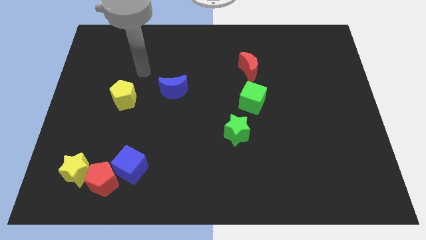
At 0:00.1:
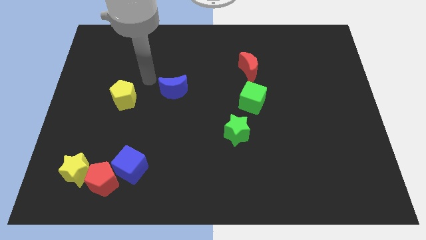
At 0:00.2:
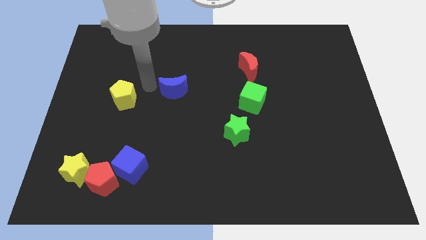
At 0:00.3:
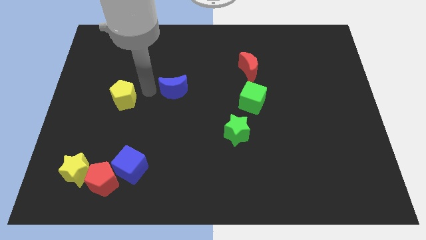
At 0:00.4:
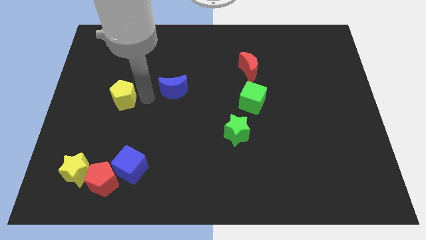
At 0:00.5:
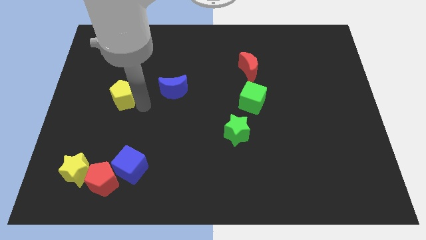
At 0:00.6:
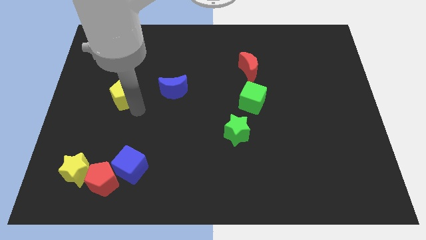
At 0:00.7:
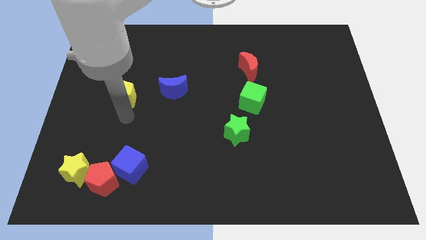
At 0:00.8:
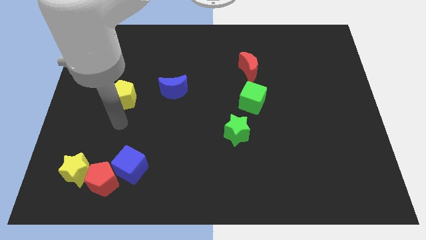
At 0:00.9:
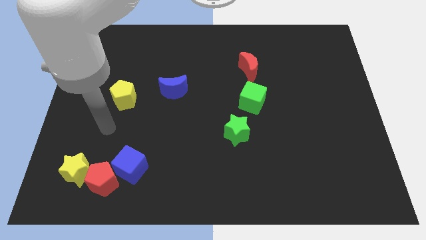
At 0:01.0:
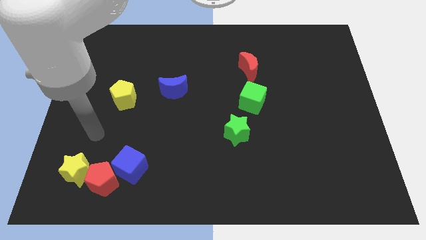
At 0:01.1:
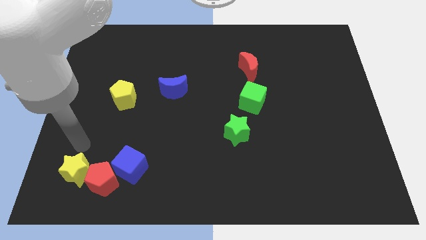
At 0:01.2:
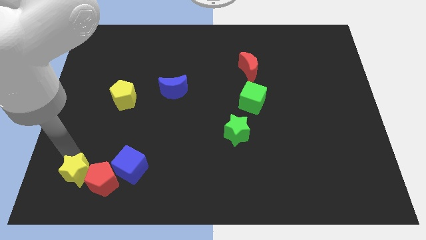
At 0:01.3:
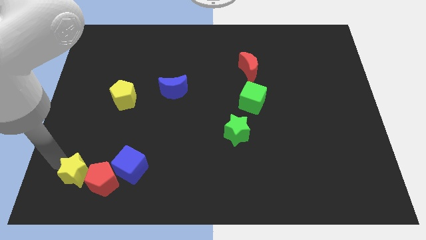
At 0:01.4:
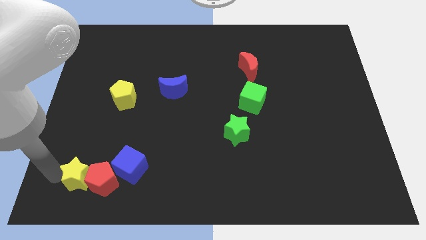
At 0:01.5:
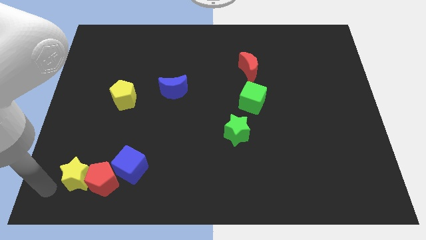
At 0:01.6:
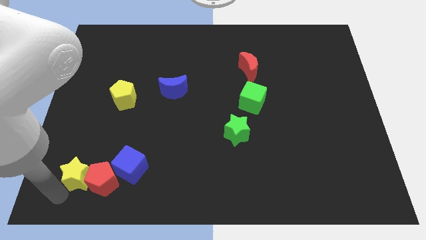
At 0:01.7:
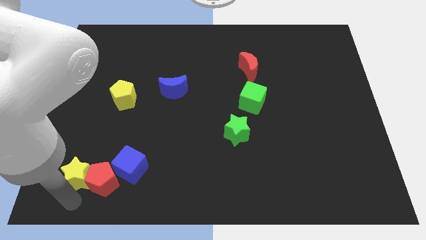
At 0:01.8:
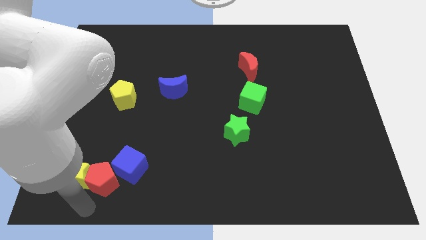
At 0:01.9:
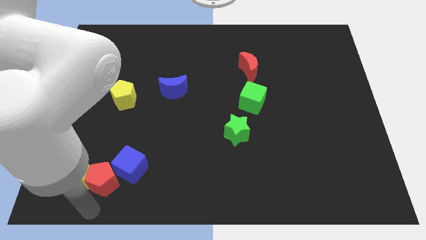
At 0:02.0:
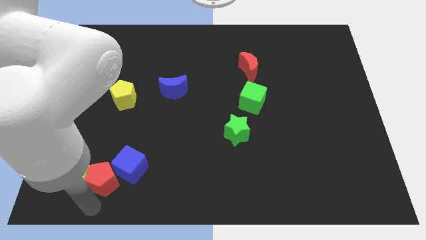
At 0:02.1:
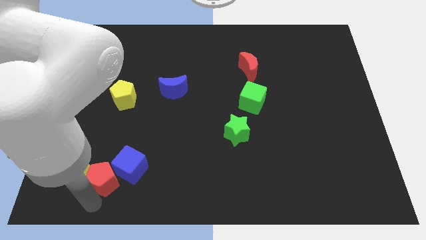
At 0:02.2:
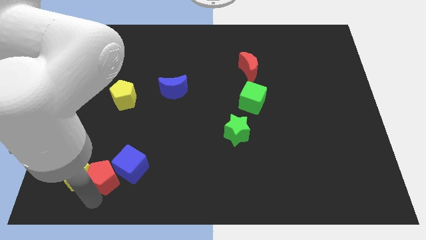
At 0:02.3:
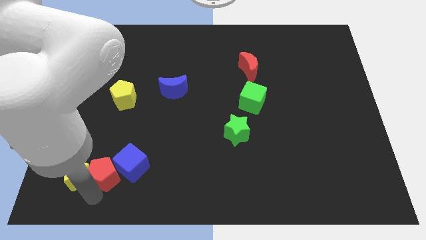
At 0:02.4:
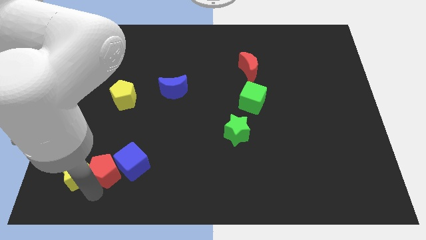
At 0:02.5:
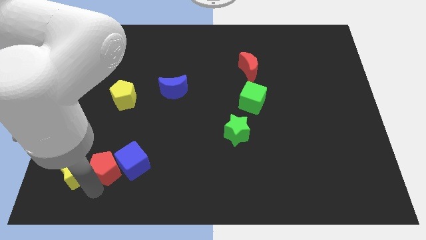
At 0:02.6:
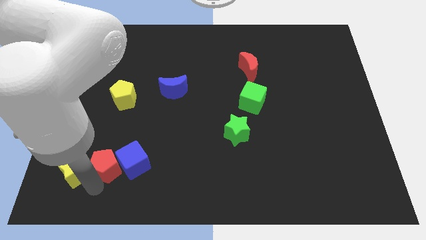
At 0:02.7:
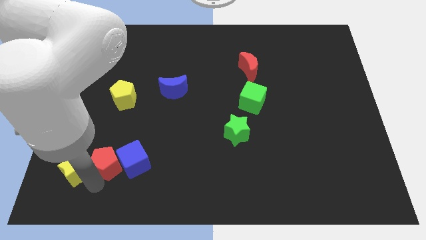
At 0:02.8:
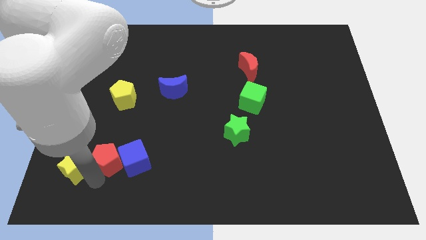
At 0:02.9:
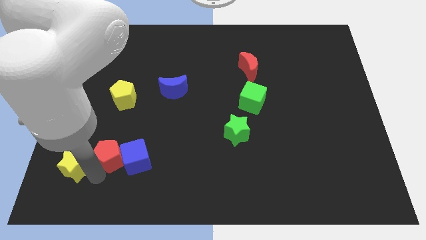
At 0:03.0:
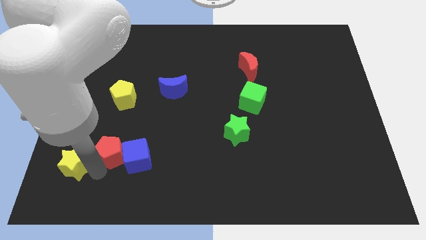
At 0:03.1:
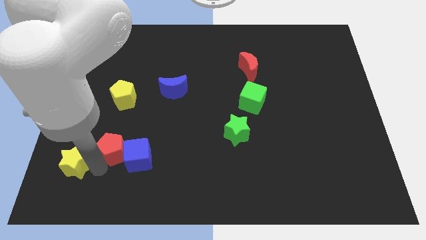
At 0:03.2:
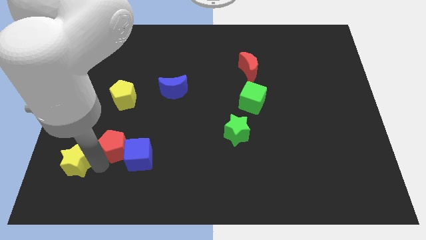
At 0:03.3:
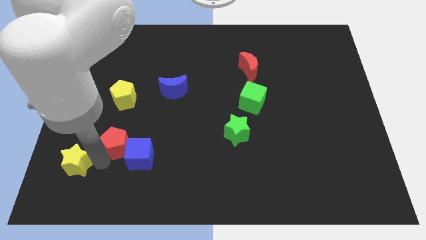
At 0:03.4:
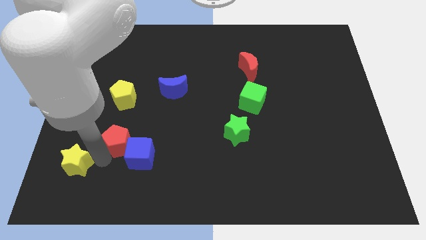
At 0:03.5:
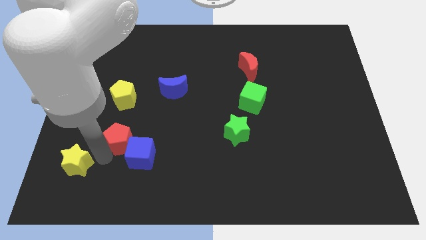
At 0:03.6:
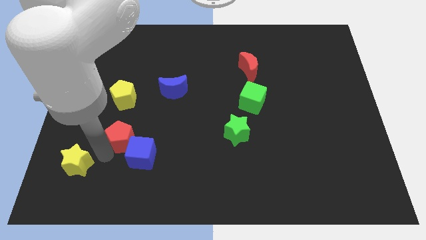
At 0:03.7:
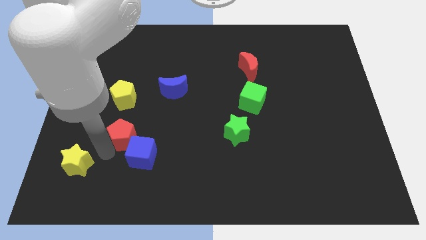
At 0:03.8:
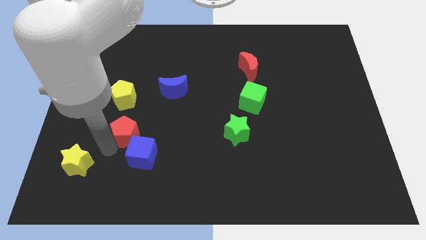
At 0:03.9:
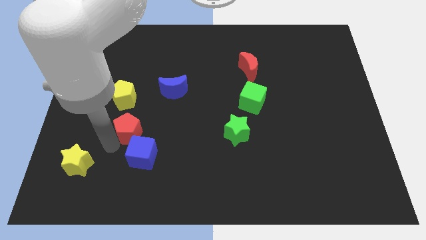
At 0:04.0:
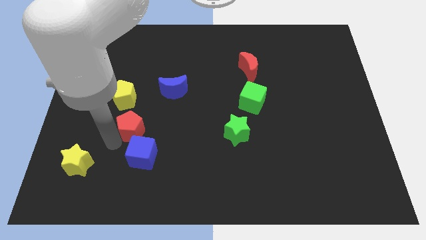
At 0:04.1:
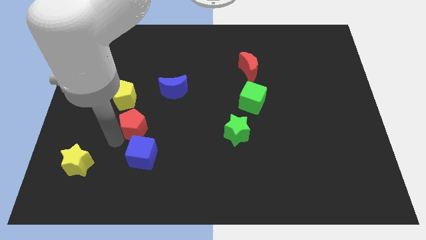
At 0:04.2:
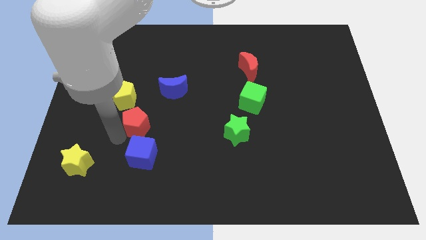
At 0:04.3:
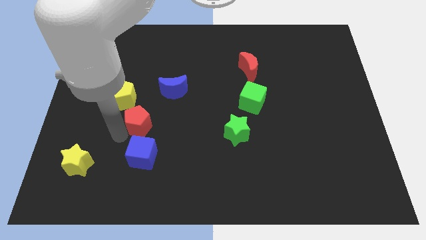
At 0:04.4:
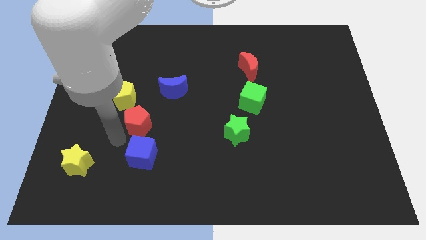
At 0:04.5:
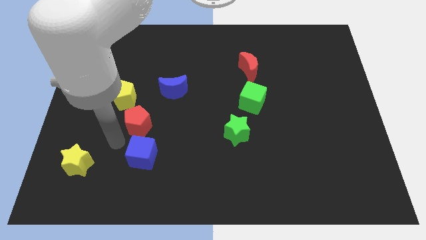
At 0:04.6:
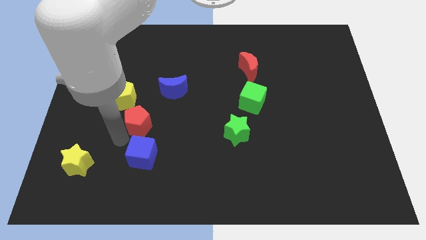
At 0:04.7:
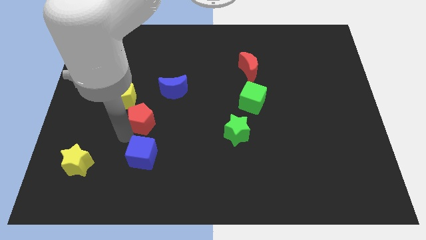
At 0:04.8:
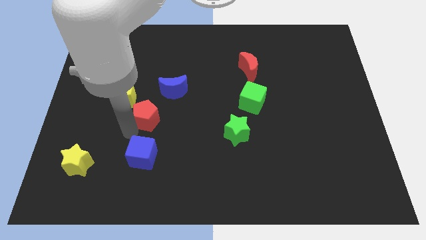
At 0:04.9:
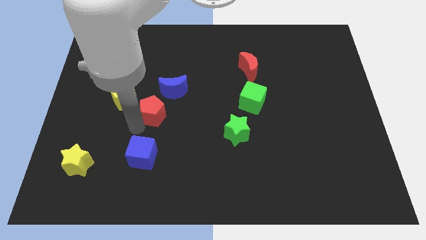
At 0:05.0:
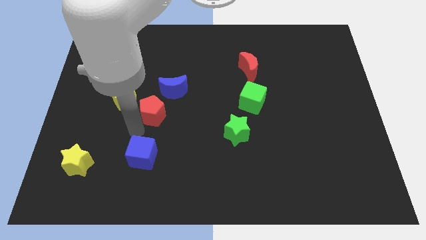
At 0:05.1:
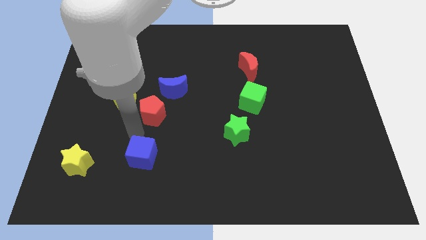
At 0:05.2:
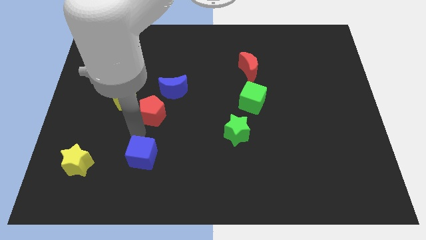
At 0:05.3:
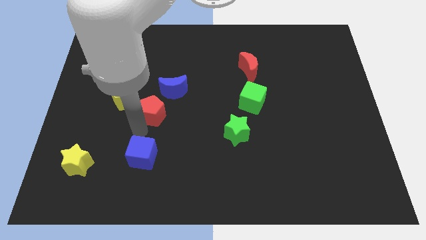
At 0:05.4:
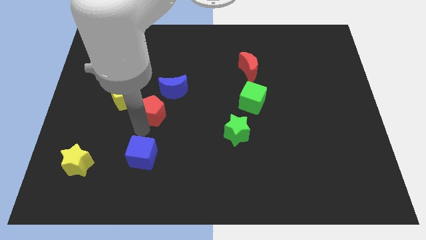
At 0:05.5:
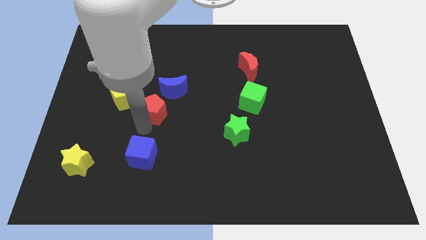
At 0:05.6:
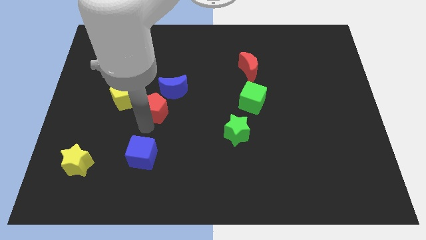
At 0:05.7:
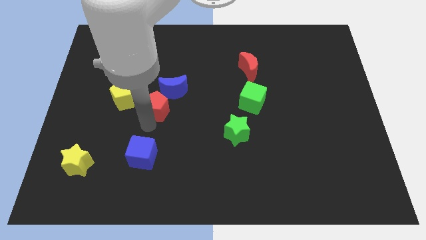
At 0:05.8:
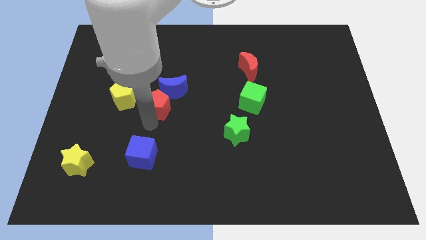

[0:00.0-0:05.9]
slide the red pentagon next to the blue moon

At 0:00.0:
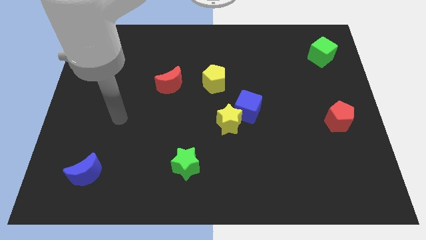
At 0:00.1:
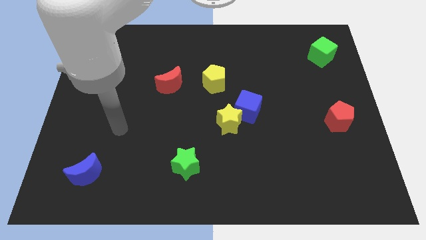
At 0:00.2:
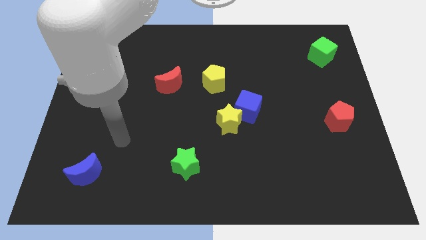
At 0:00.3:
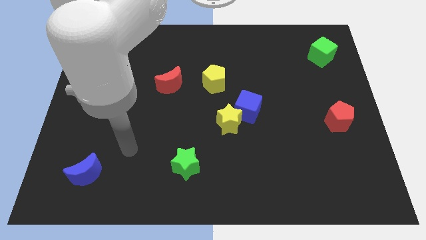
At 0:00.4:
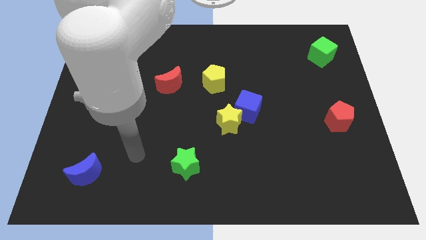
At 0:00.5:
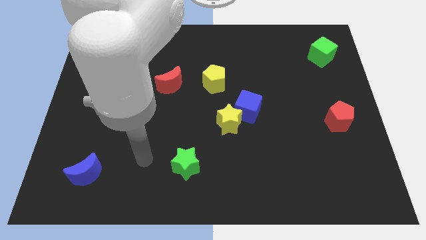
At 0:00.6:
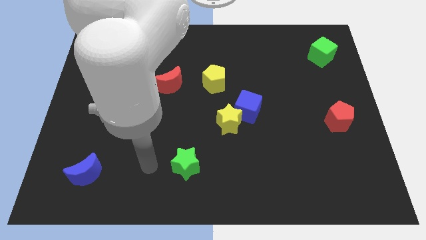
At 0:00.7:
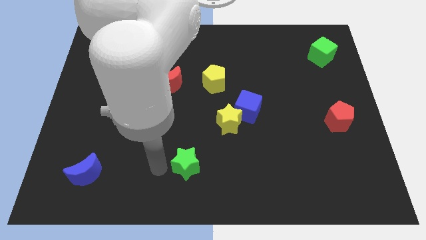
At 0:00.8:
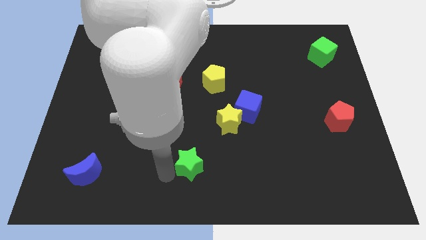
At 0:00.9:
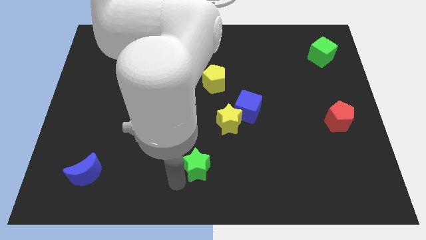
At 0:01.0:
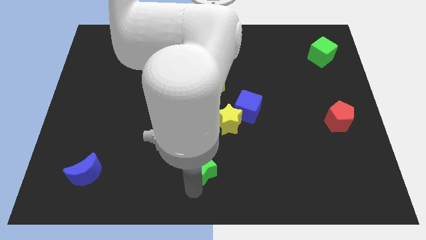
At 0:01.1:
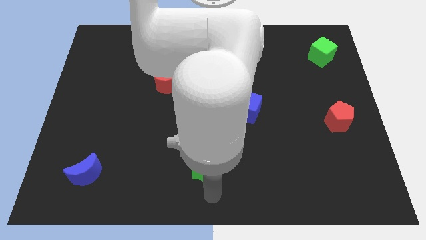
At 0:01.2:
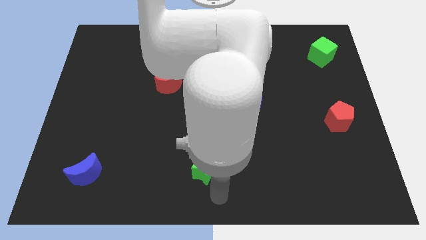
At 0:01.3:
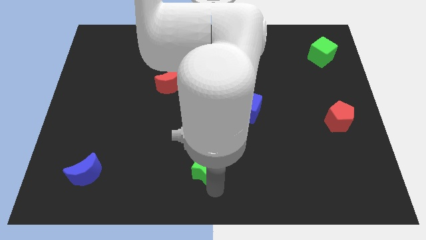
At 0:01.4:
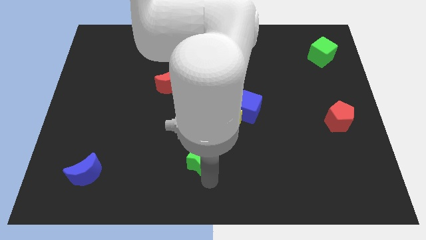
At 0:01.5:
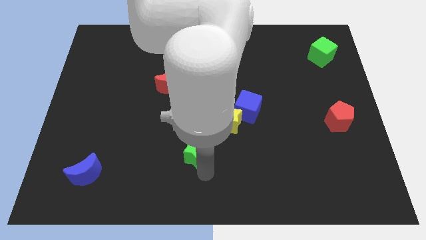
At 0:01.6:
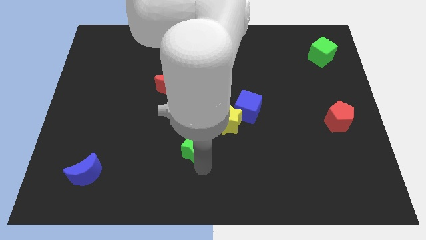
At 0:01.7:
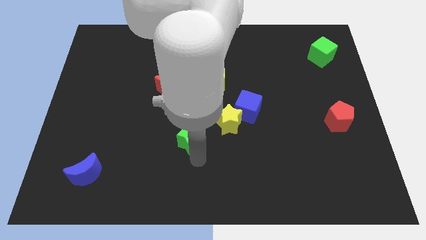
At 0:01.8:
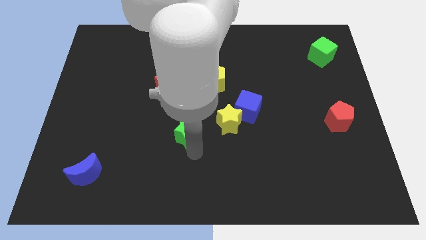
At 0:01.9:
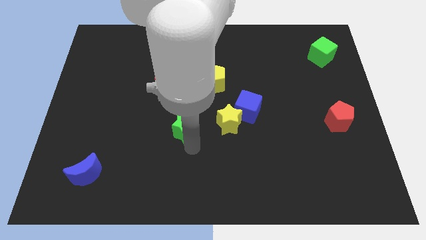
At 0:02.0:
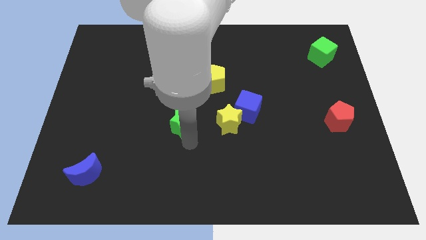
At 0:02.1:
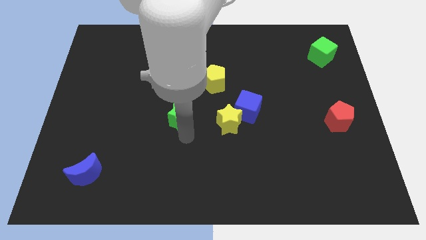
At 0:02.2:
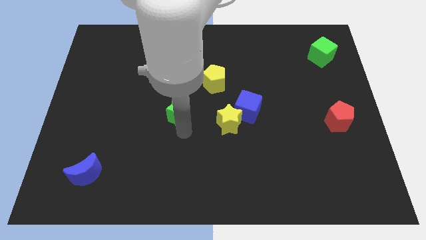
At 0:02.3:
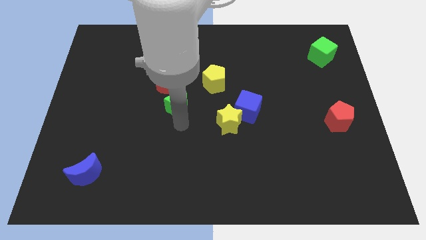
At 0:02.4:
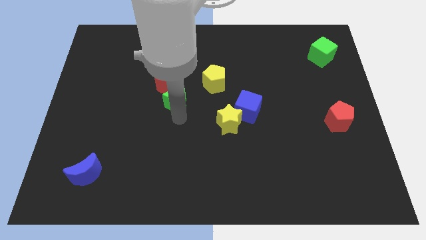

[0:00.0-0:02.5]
slide the green star close to the red moon
